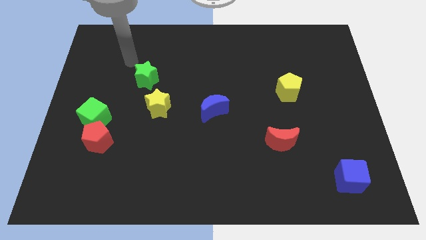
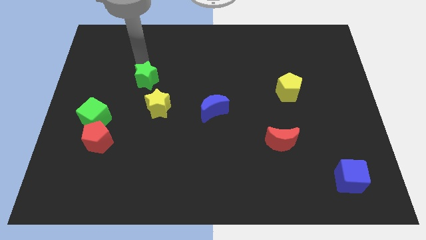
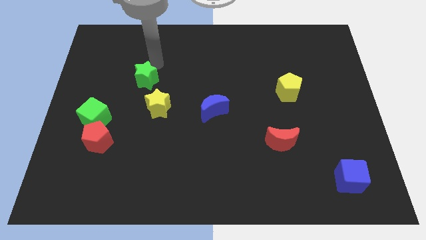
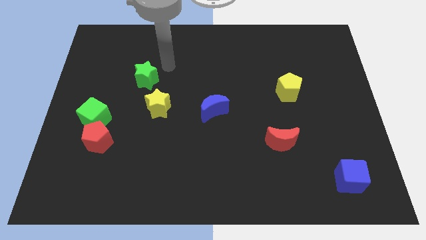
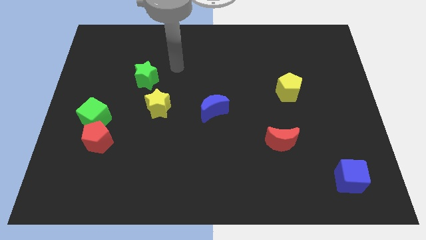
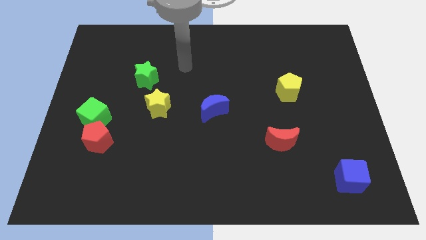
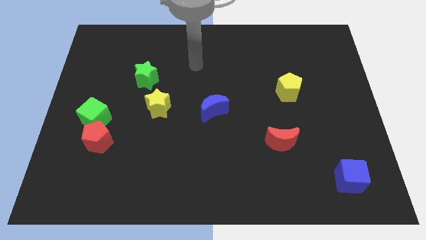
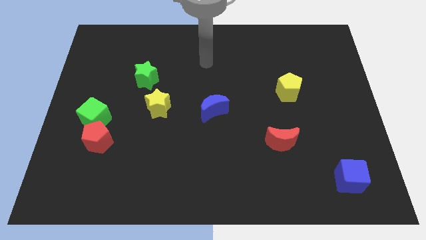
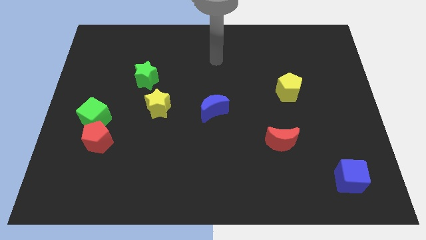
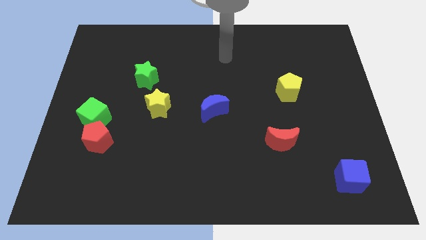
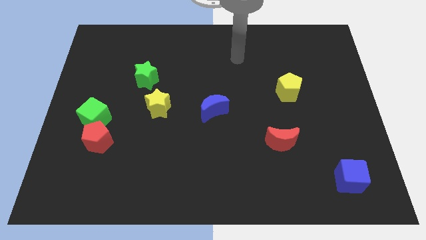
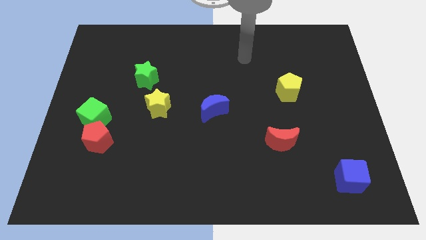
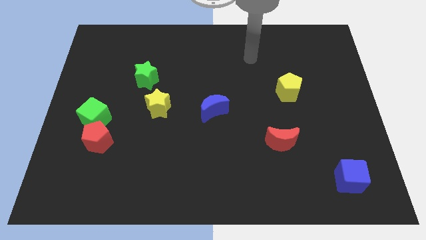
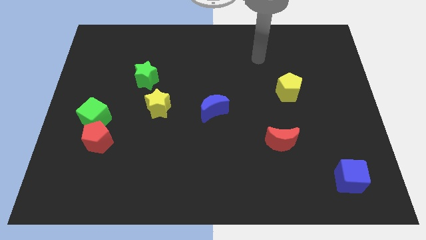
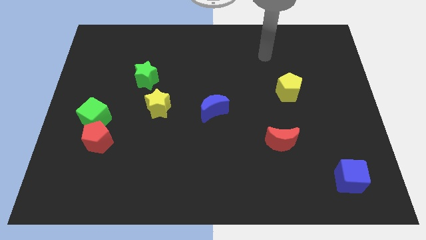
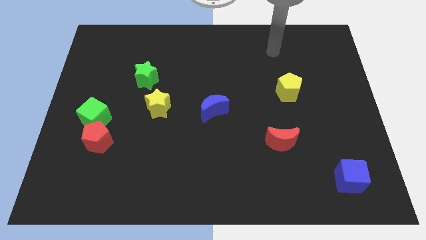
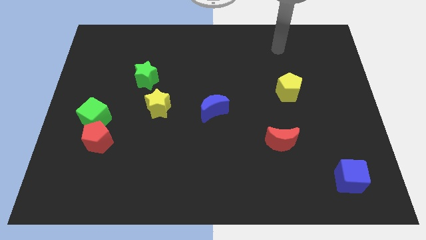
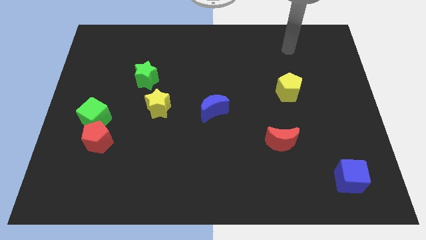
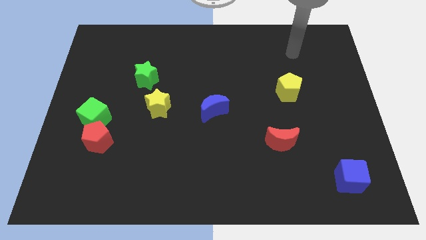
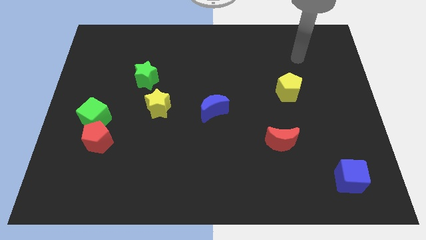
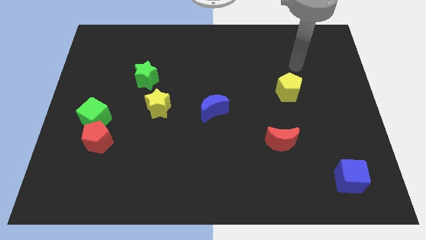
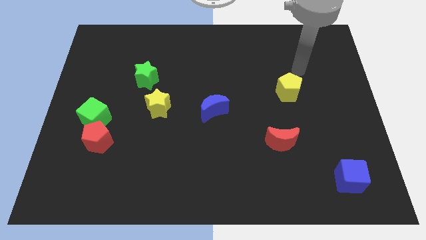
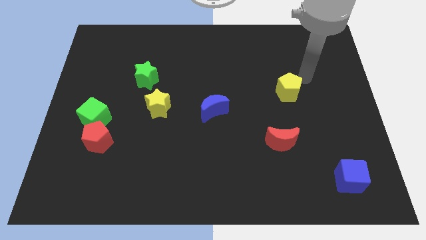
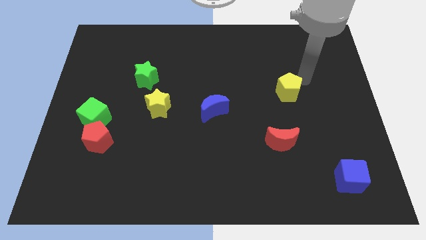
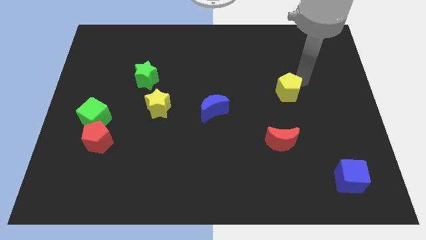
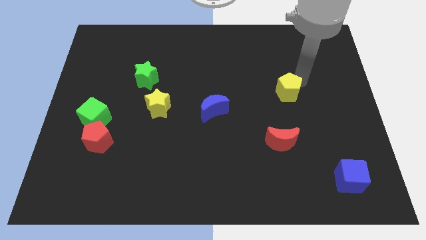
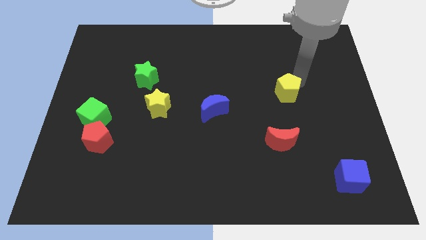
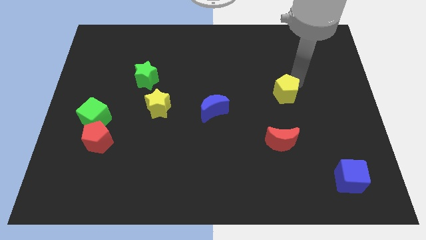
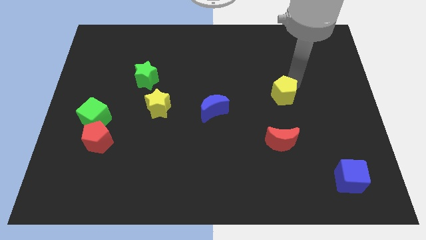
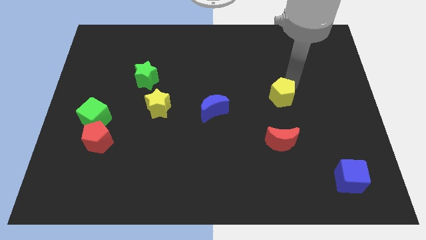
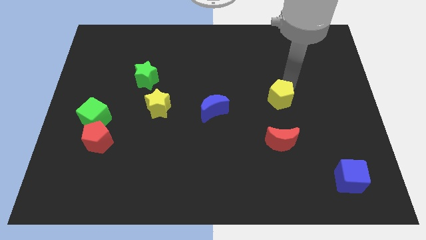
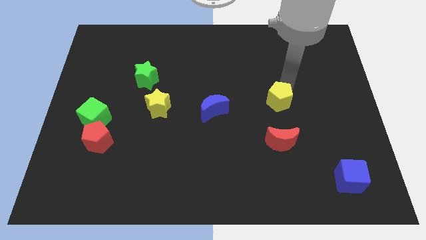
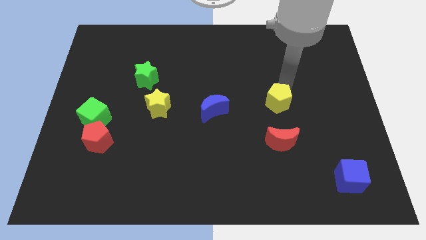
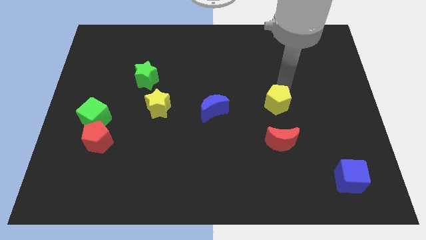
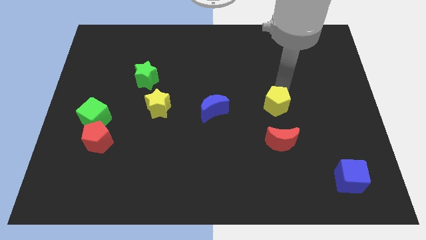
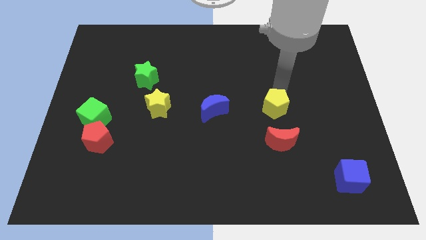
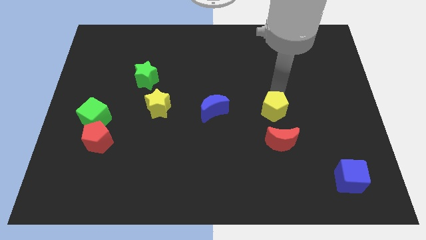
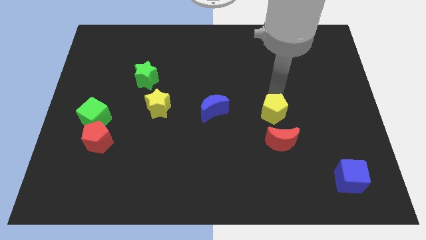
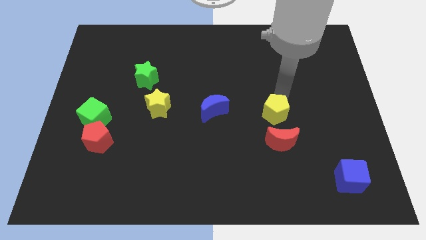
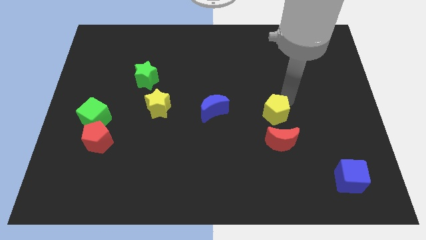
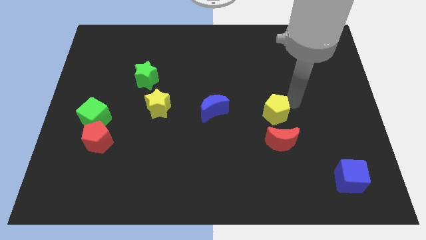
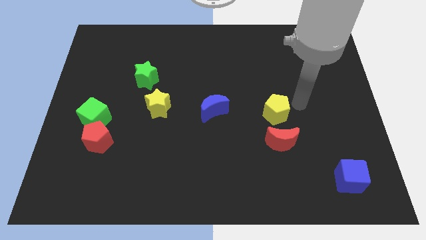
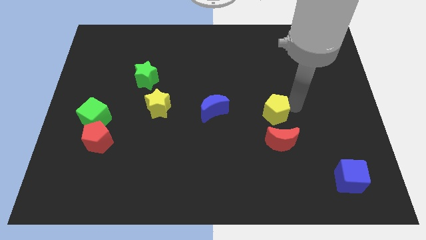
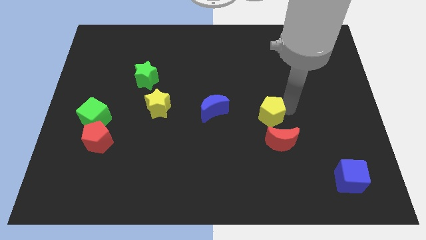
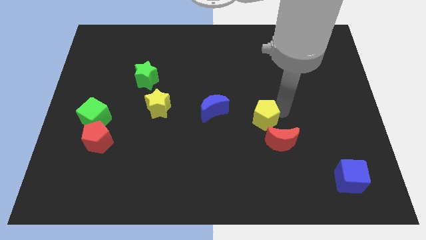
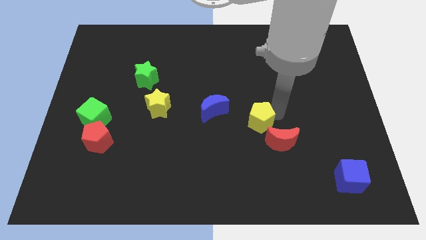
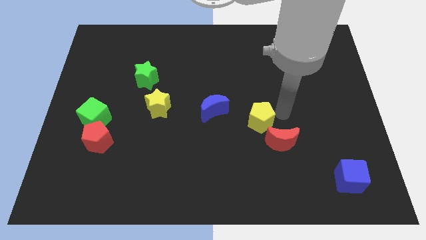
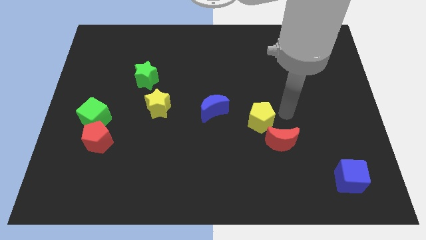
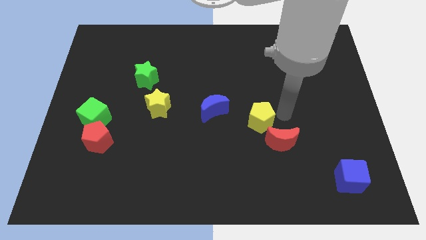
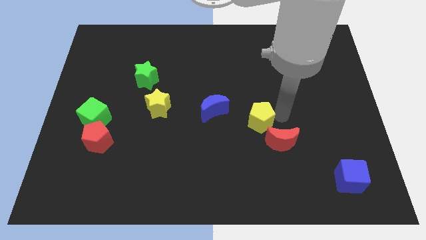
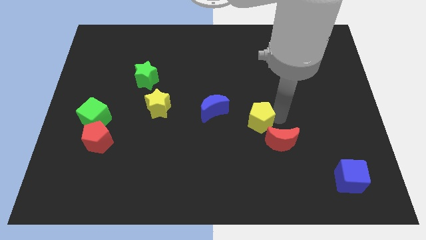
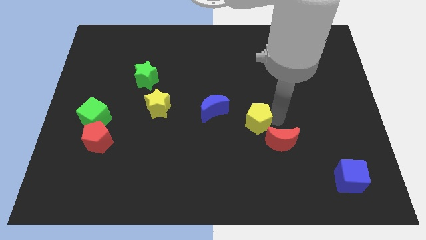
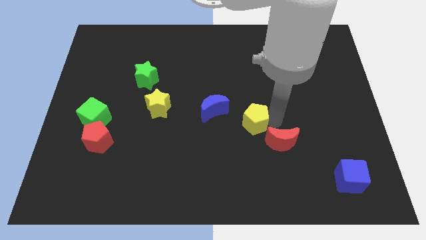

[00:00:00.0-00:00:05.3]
move the yellow pentagon to the bottom right side of the blue moon

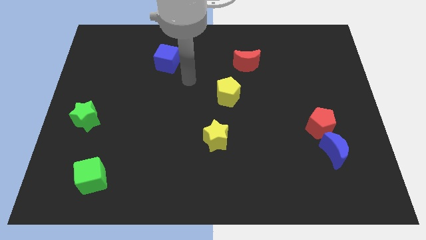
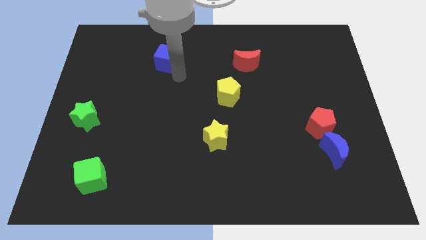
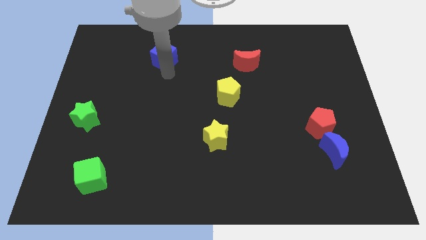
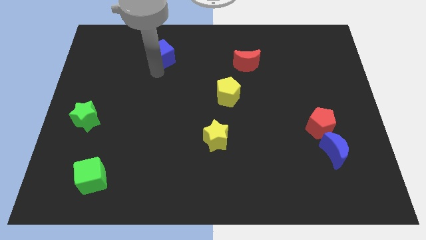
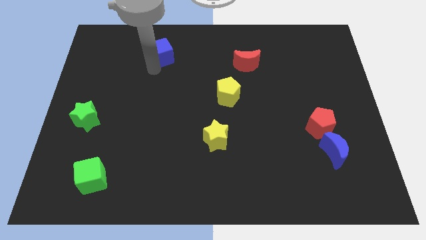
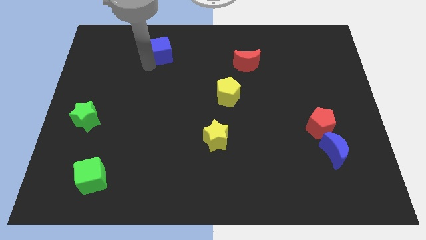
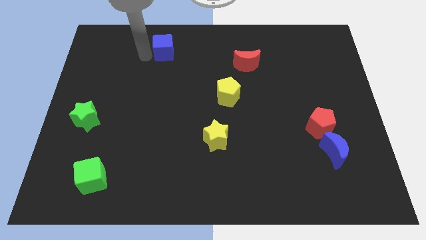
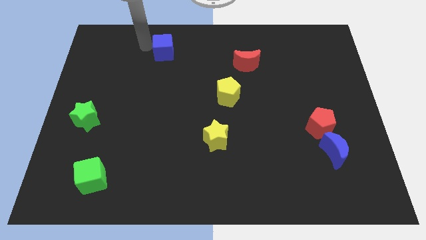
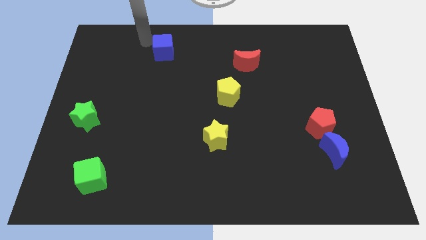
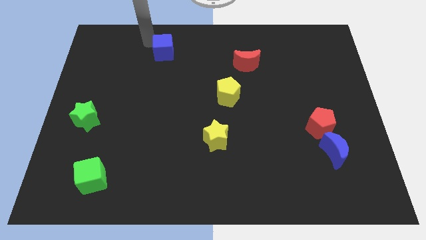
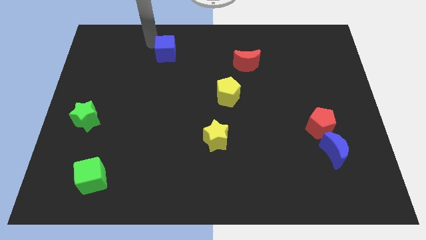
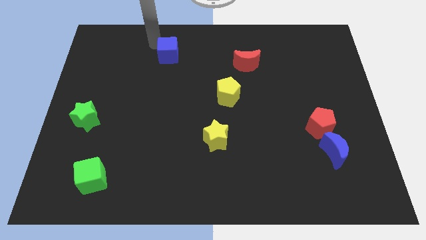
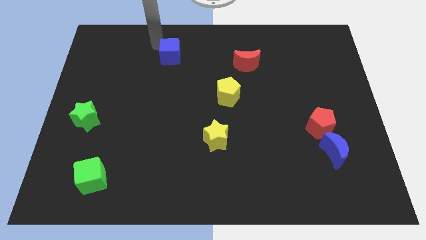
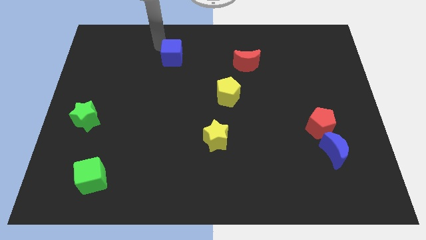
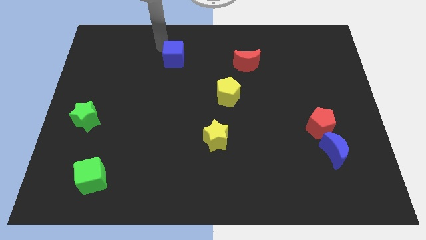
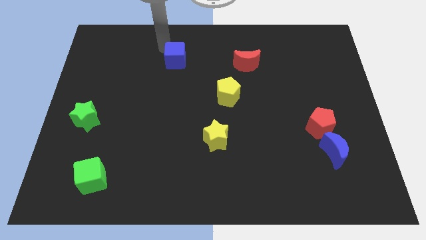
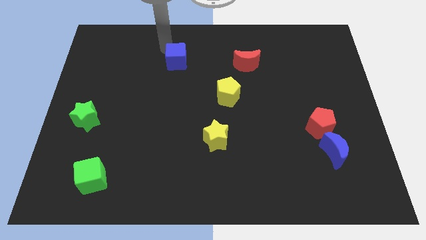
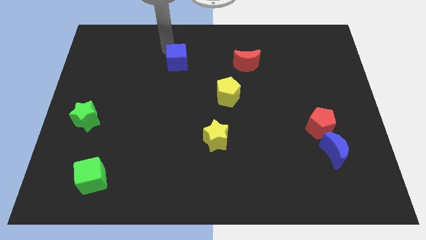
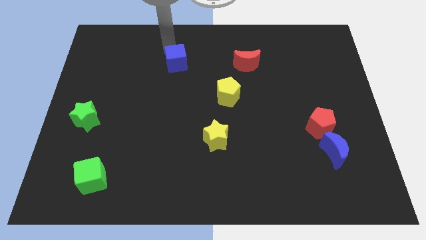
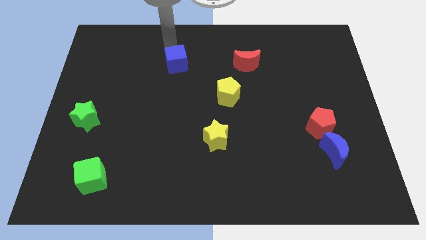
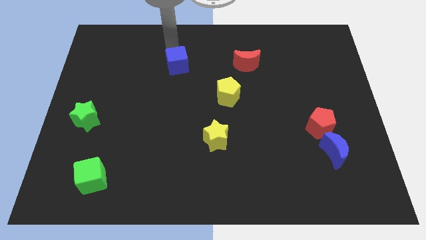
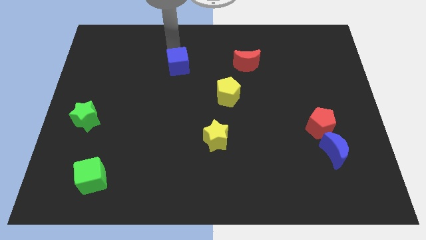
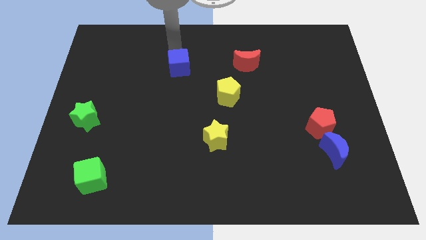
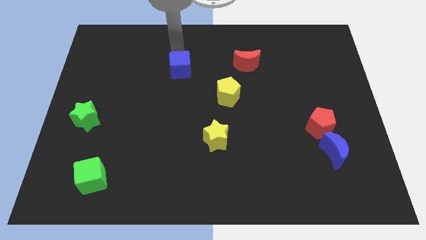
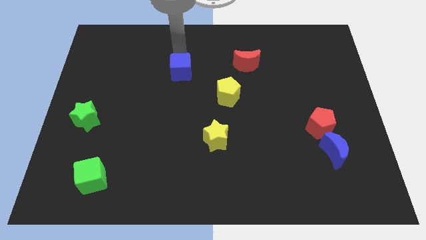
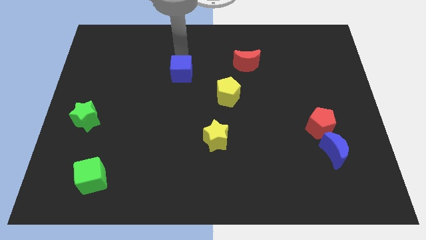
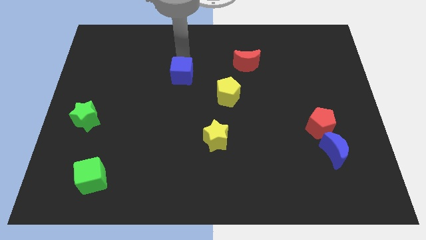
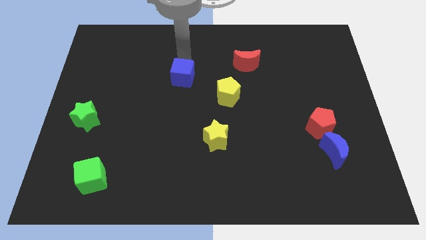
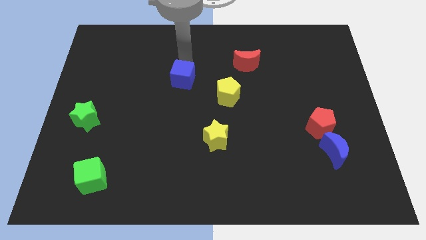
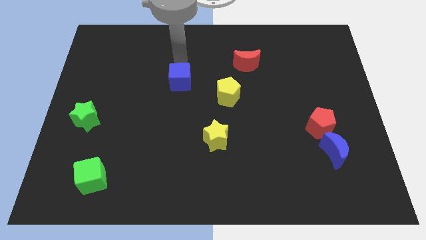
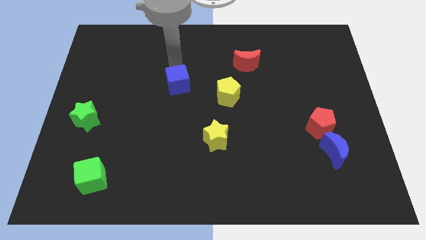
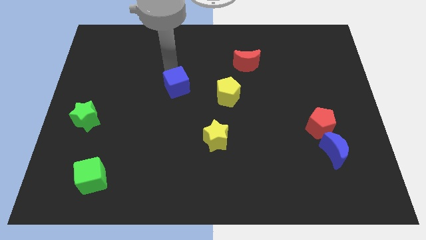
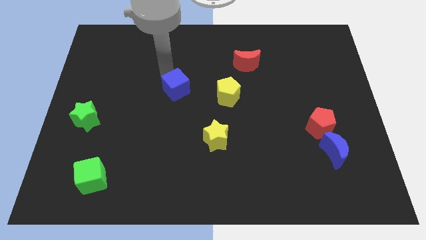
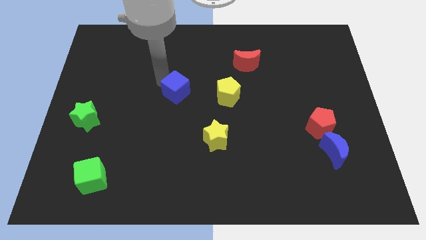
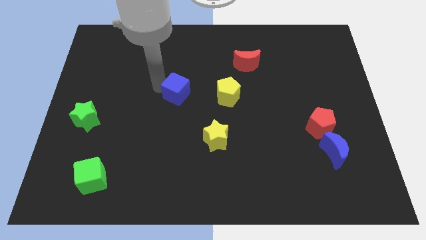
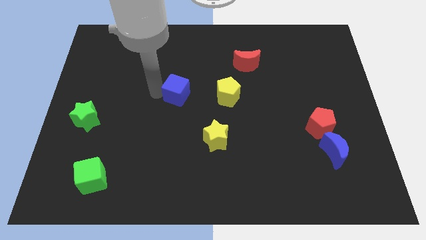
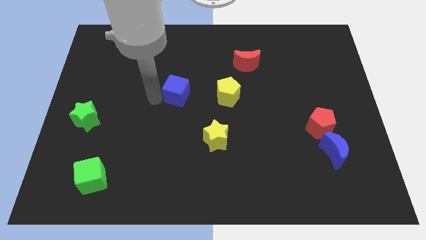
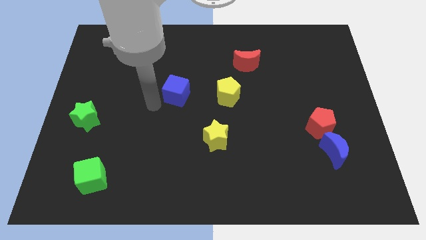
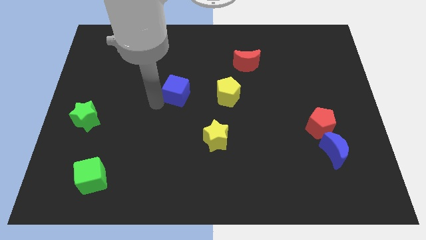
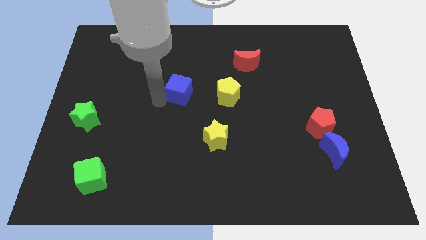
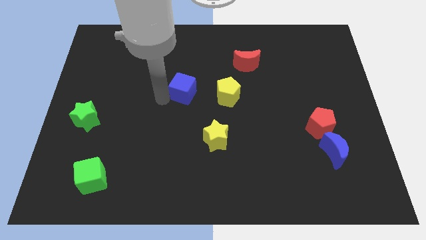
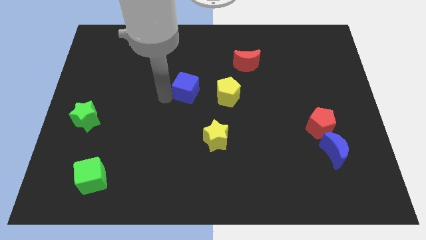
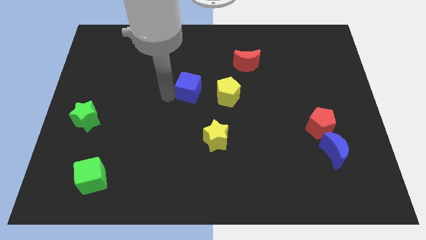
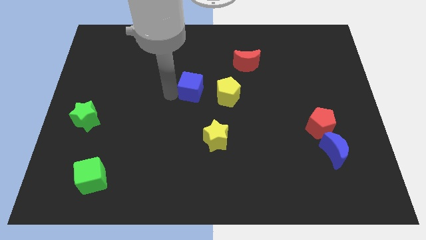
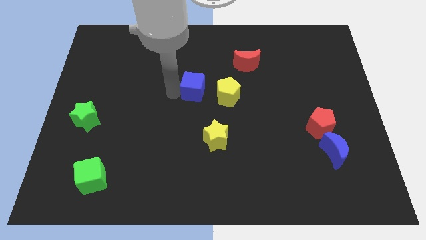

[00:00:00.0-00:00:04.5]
put the blue cube diagonally up and to the left of the yellow pentagon
